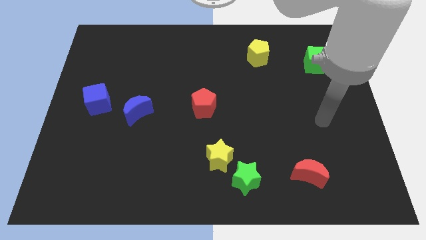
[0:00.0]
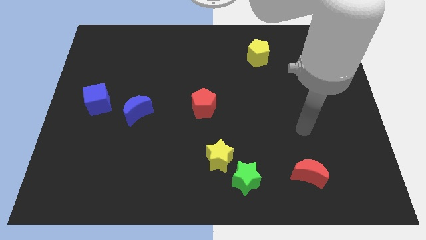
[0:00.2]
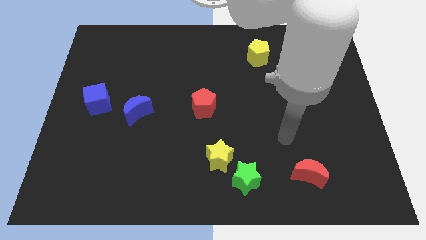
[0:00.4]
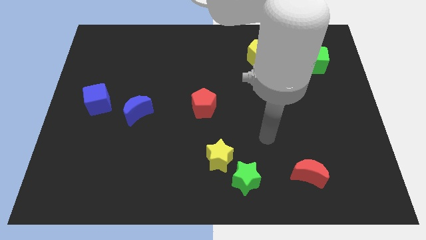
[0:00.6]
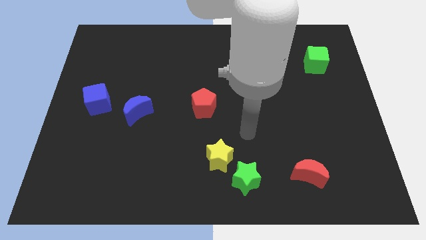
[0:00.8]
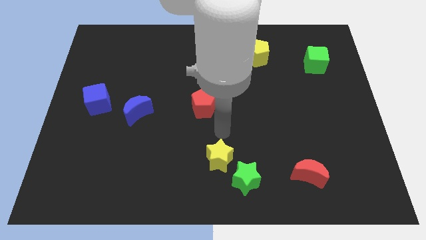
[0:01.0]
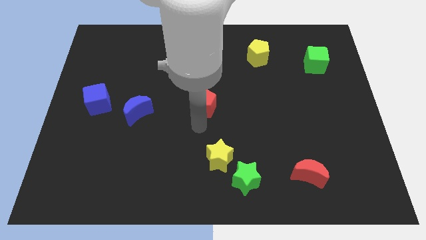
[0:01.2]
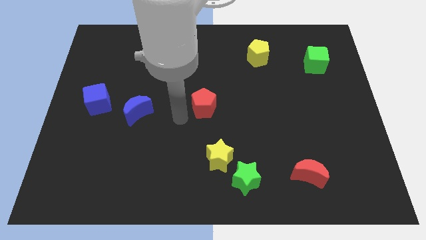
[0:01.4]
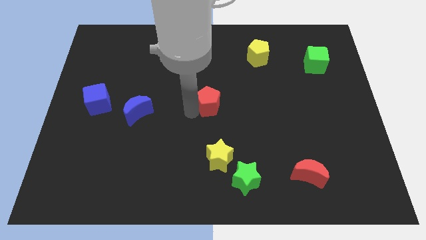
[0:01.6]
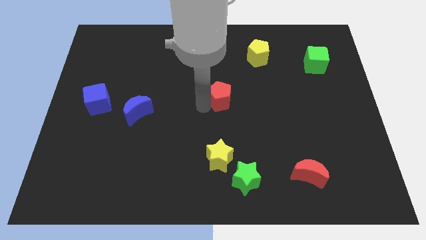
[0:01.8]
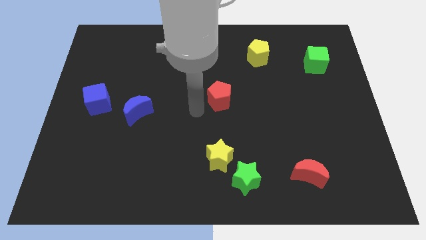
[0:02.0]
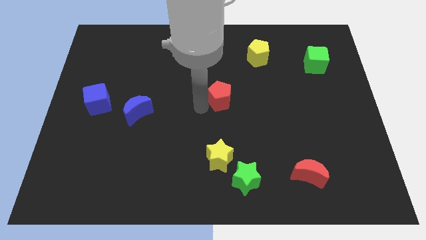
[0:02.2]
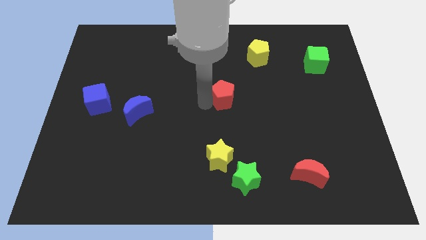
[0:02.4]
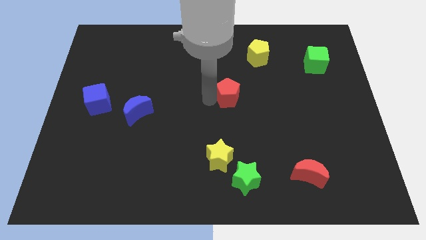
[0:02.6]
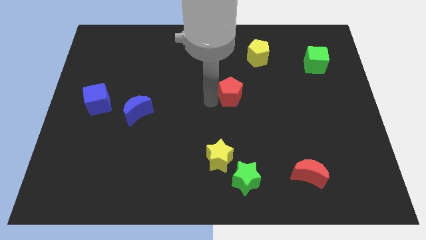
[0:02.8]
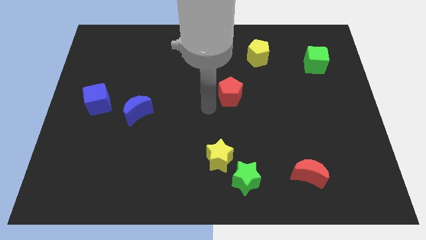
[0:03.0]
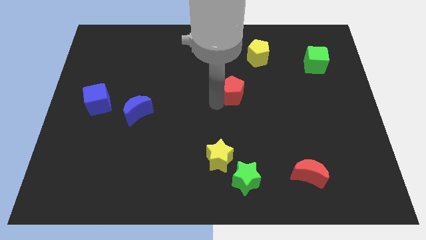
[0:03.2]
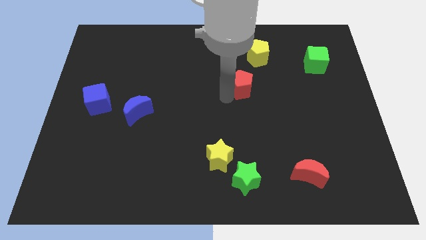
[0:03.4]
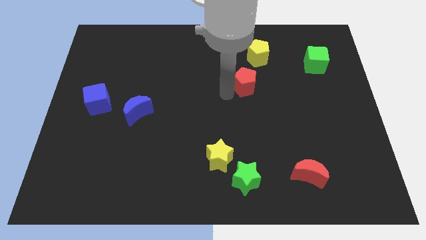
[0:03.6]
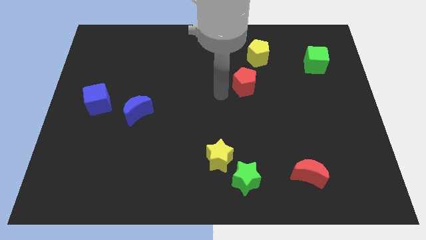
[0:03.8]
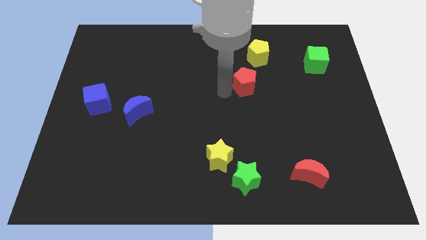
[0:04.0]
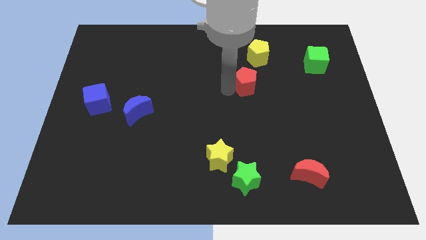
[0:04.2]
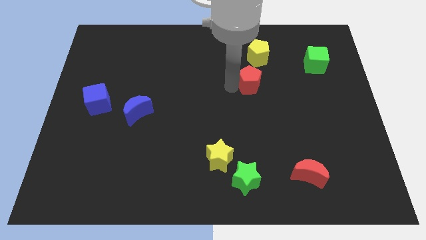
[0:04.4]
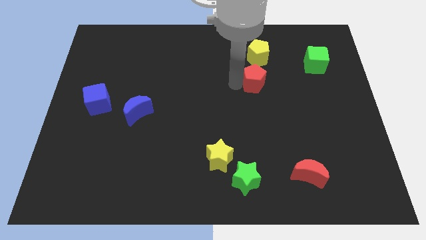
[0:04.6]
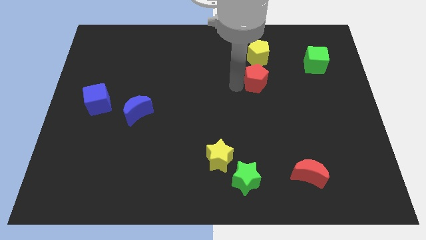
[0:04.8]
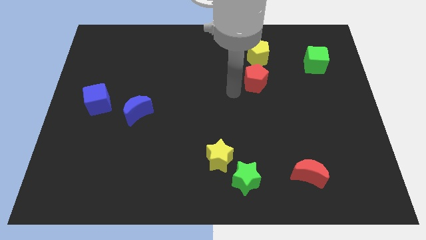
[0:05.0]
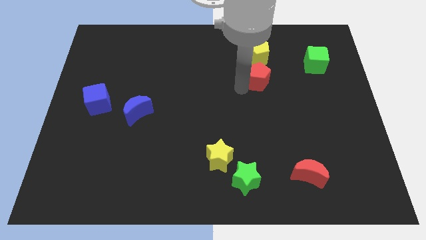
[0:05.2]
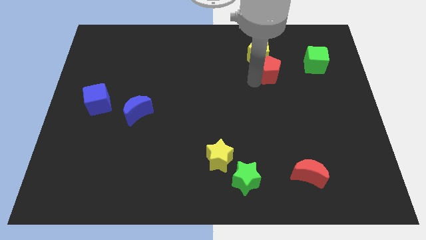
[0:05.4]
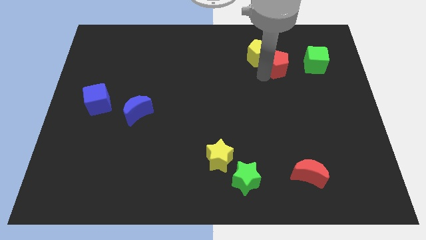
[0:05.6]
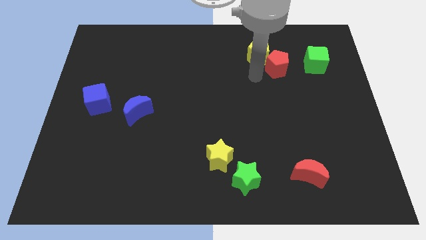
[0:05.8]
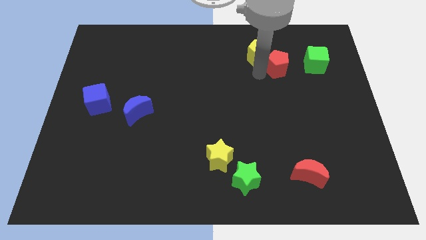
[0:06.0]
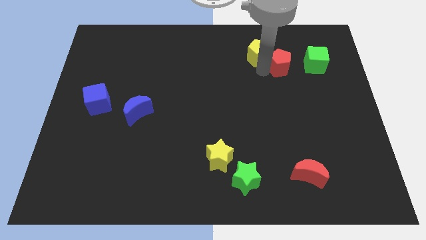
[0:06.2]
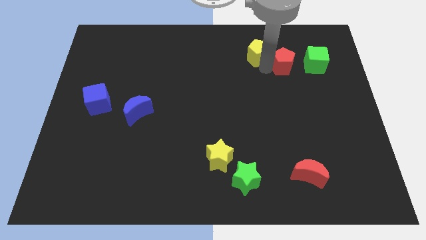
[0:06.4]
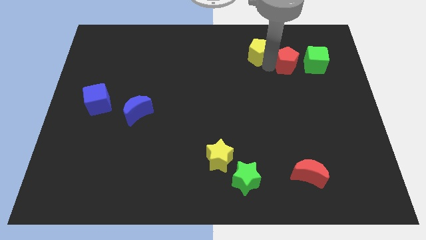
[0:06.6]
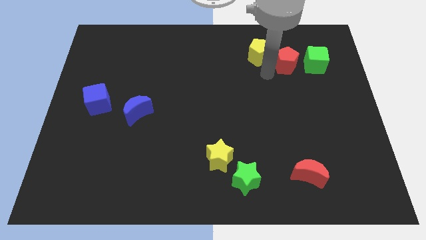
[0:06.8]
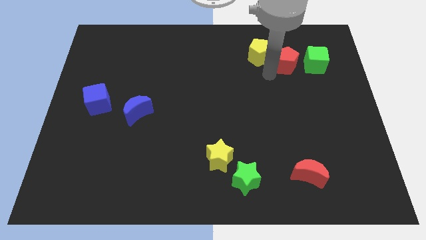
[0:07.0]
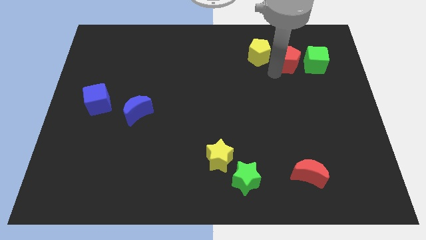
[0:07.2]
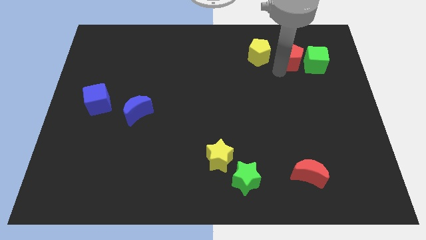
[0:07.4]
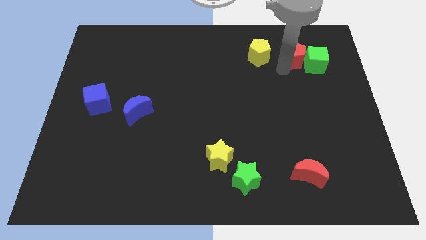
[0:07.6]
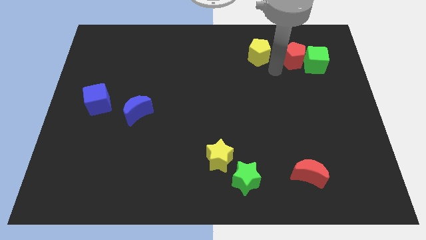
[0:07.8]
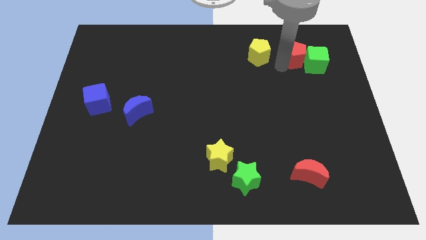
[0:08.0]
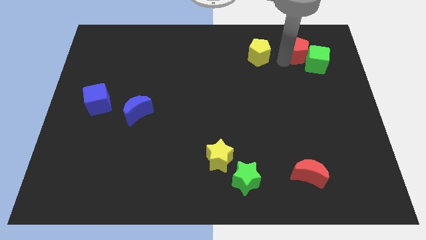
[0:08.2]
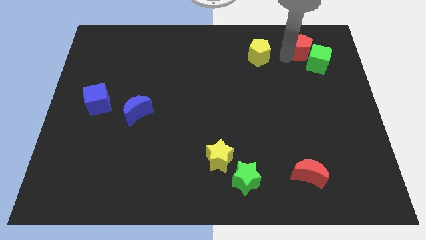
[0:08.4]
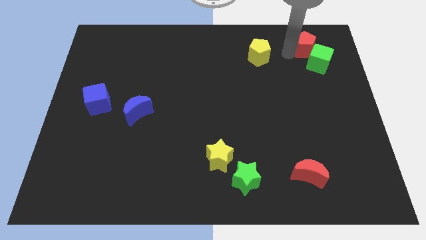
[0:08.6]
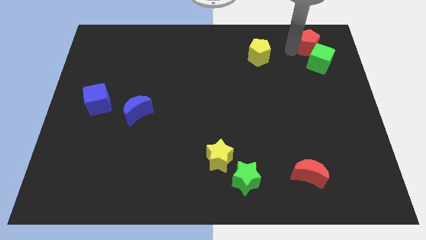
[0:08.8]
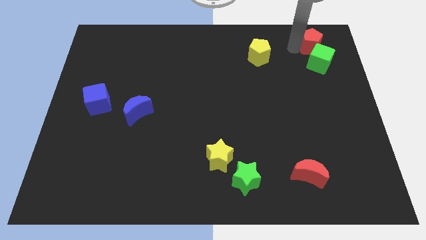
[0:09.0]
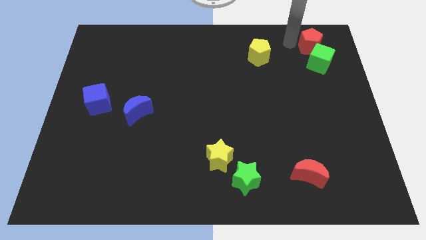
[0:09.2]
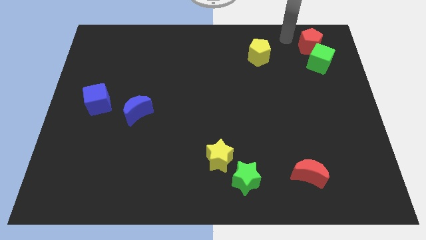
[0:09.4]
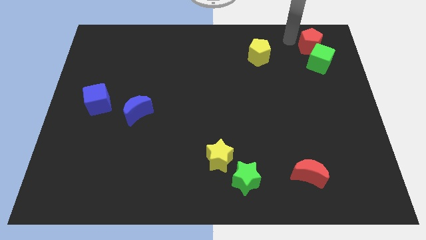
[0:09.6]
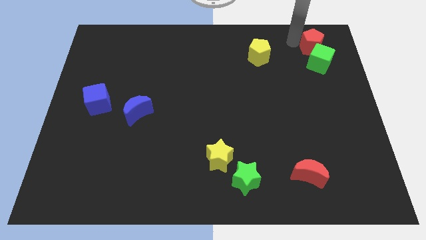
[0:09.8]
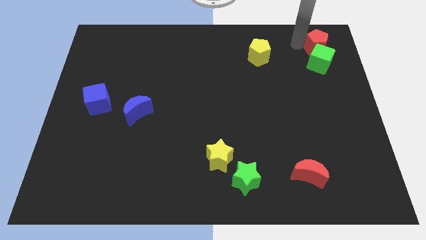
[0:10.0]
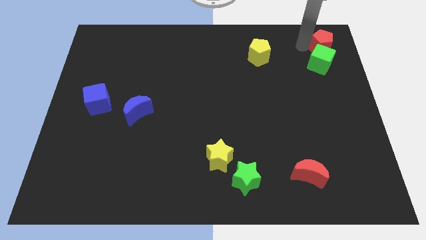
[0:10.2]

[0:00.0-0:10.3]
move the red pentagon to the top right of the board
